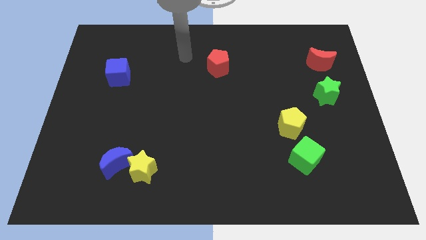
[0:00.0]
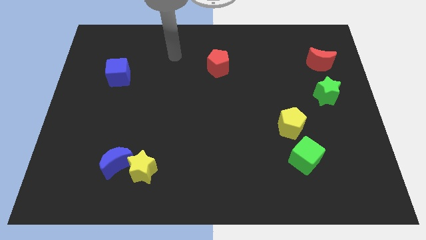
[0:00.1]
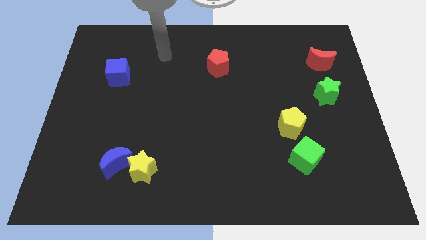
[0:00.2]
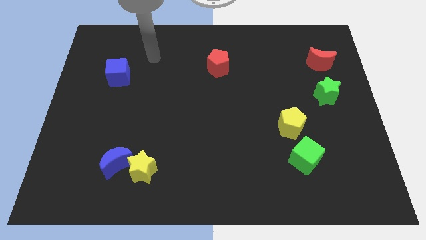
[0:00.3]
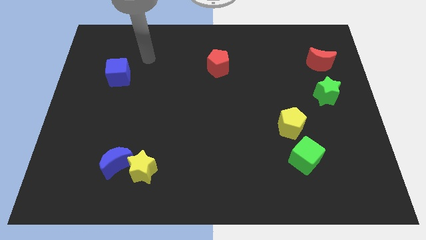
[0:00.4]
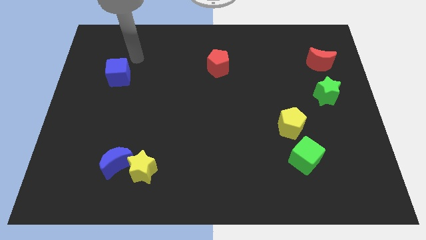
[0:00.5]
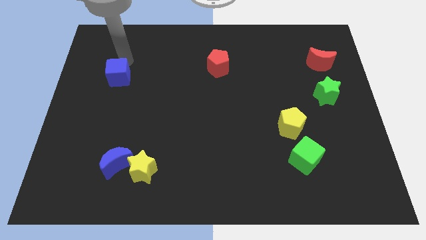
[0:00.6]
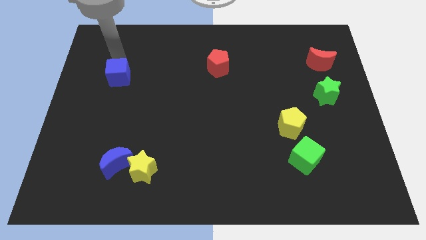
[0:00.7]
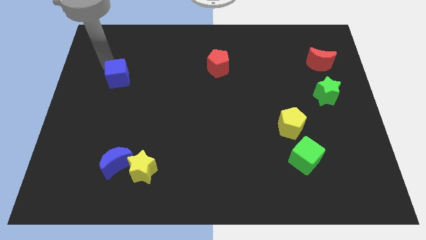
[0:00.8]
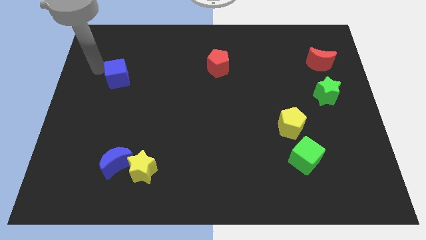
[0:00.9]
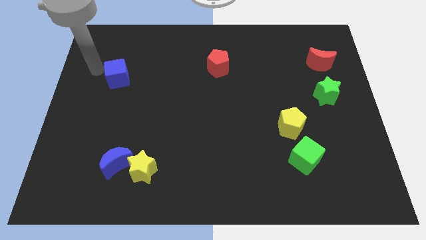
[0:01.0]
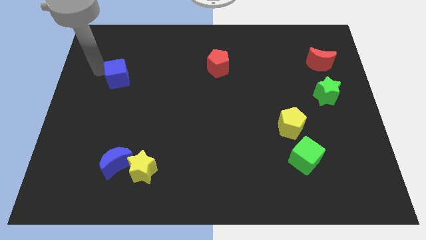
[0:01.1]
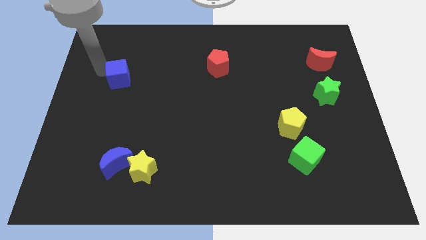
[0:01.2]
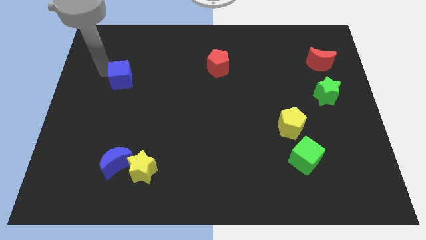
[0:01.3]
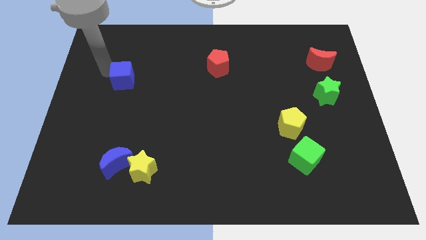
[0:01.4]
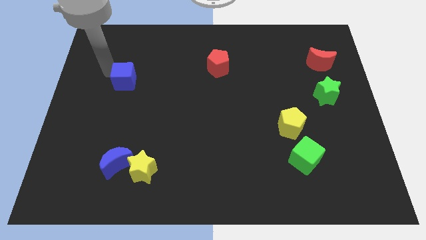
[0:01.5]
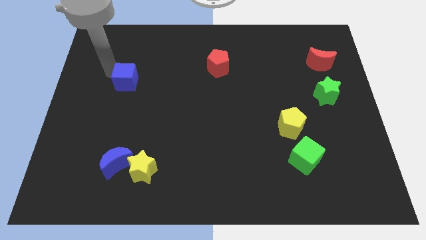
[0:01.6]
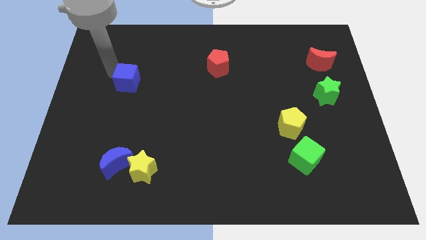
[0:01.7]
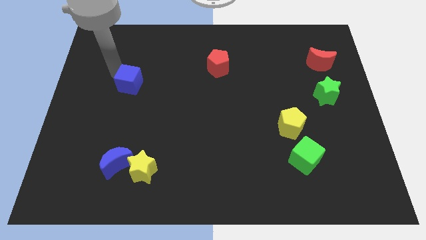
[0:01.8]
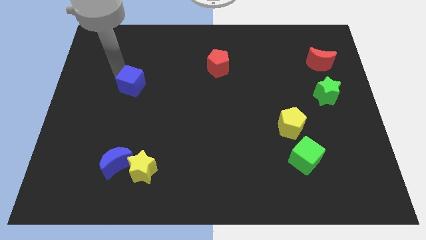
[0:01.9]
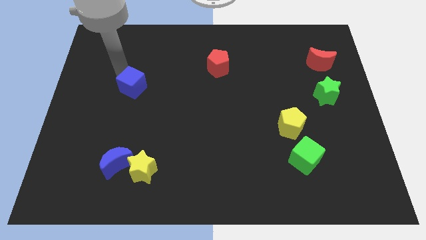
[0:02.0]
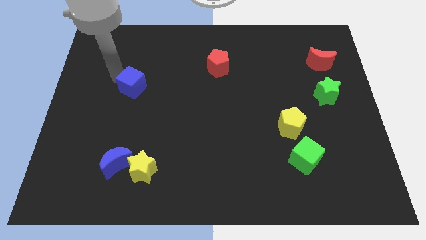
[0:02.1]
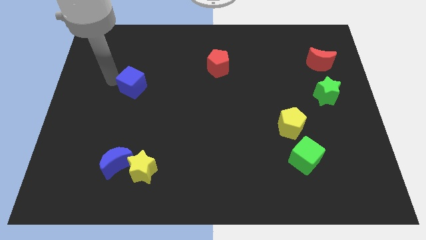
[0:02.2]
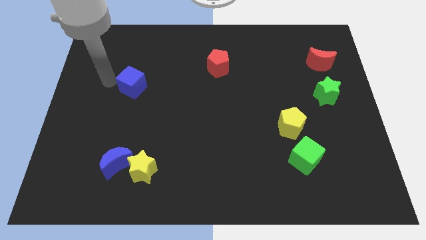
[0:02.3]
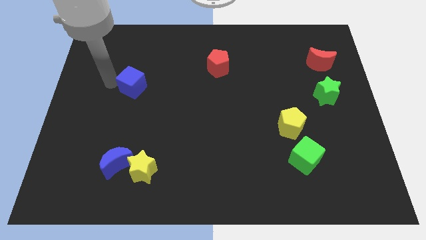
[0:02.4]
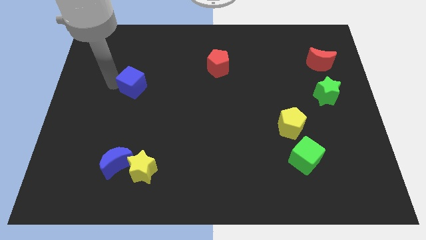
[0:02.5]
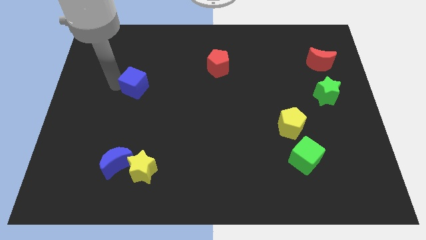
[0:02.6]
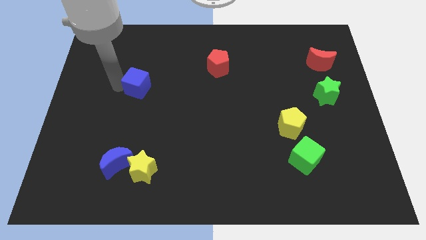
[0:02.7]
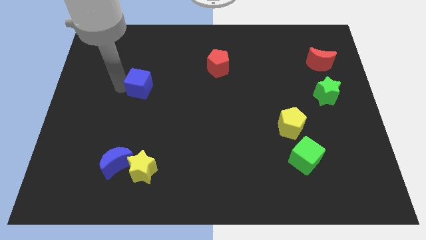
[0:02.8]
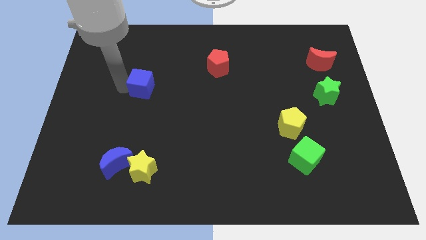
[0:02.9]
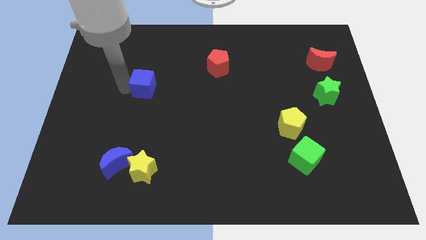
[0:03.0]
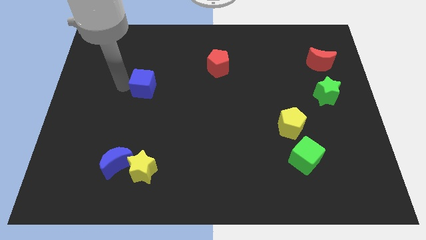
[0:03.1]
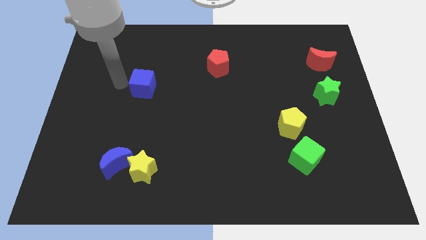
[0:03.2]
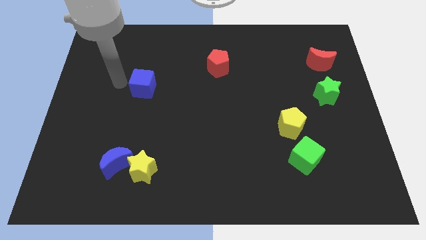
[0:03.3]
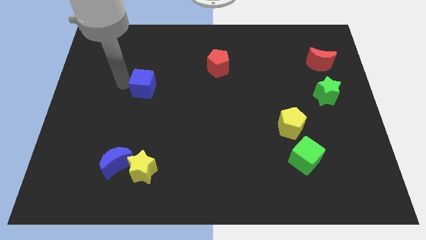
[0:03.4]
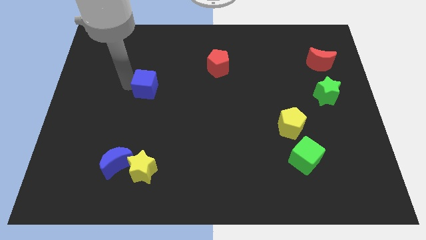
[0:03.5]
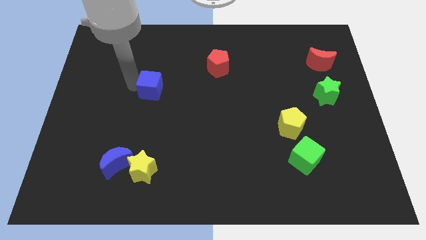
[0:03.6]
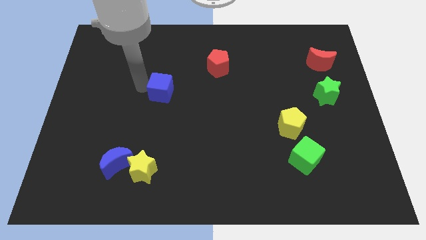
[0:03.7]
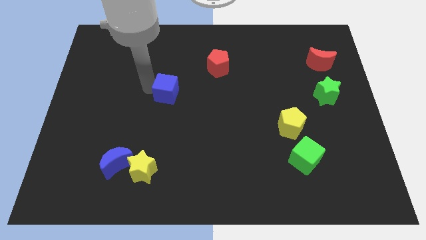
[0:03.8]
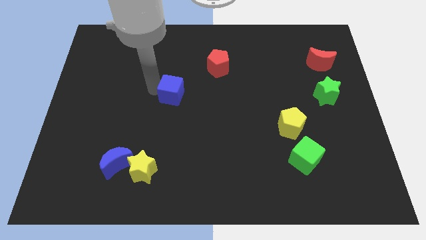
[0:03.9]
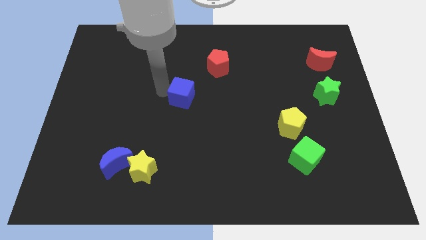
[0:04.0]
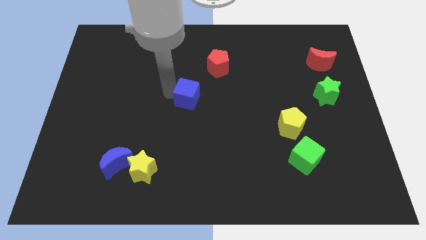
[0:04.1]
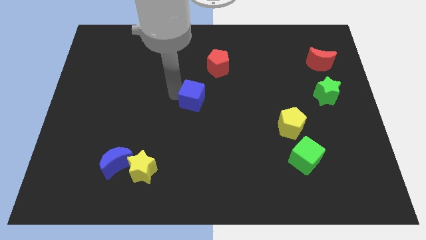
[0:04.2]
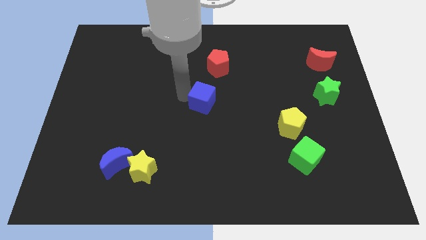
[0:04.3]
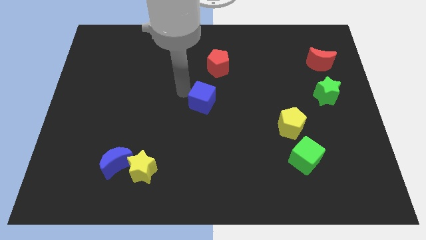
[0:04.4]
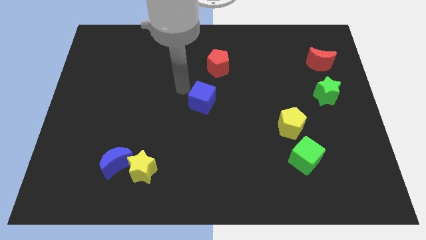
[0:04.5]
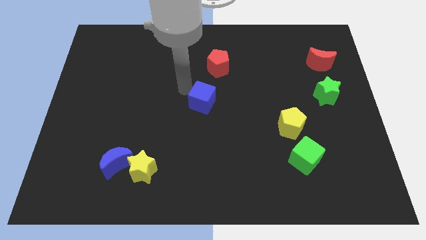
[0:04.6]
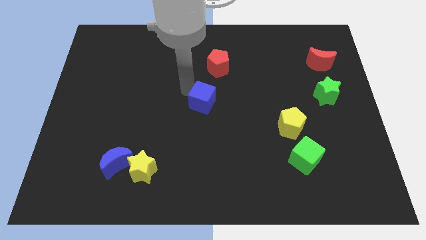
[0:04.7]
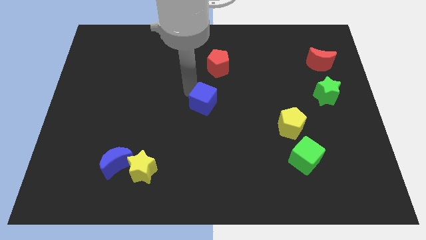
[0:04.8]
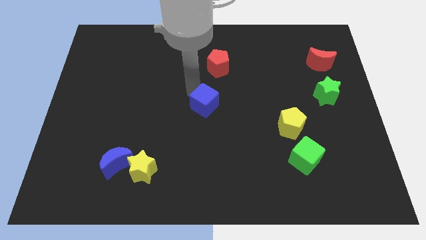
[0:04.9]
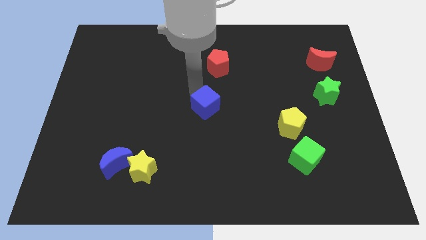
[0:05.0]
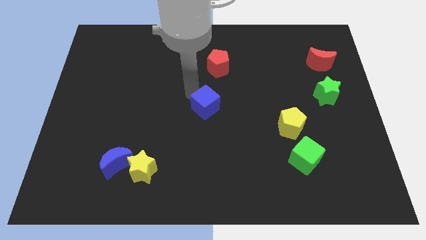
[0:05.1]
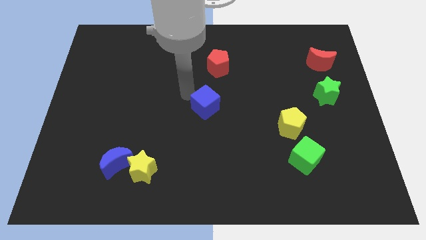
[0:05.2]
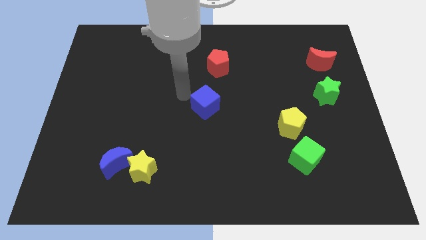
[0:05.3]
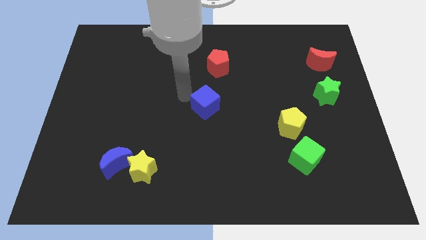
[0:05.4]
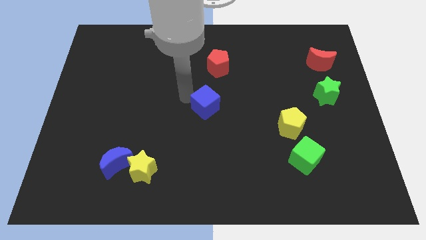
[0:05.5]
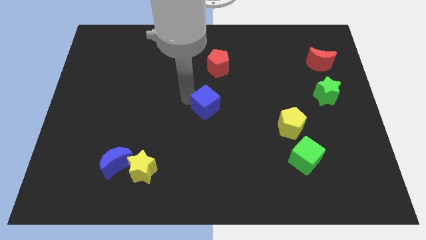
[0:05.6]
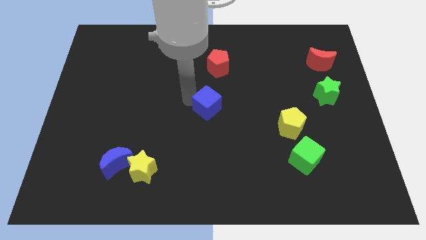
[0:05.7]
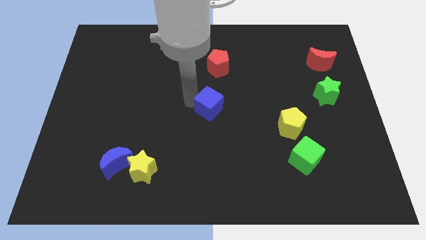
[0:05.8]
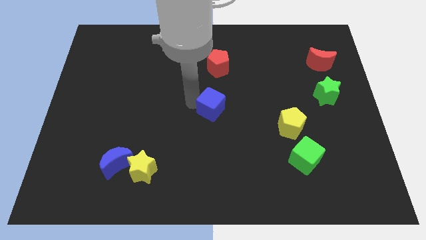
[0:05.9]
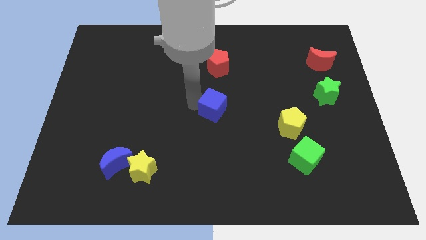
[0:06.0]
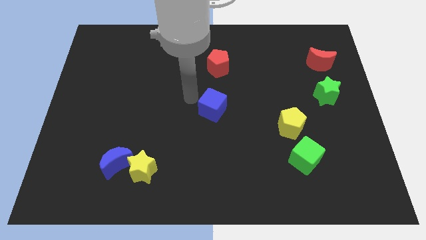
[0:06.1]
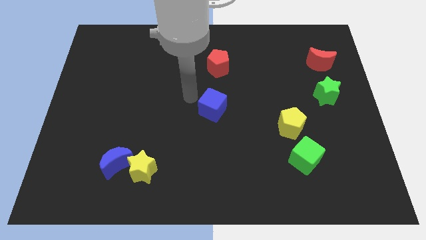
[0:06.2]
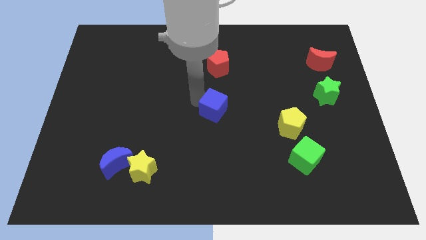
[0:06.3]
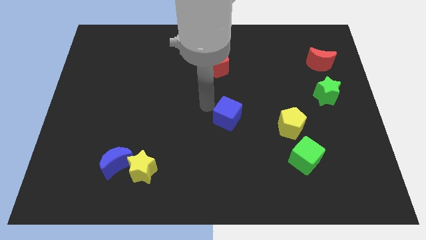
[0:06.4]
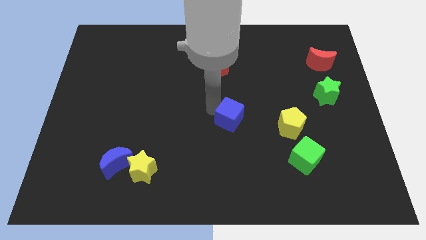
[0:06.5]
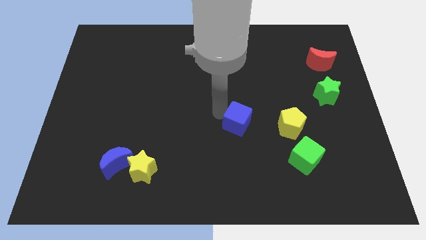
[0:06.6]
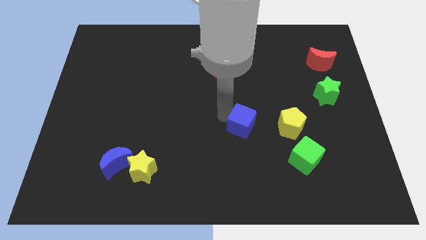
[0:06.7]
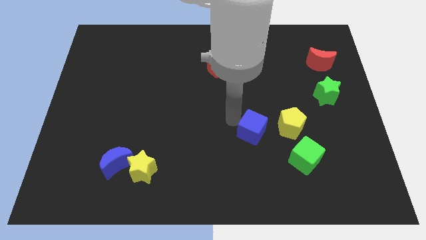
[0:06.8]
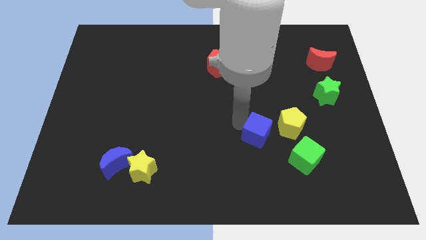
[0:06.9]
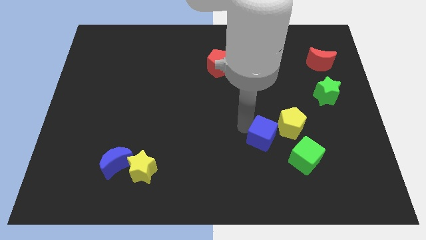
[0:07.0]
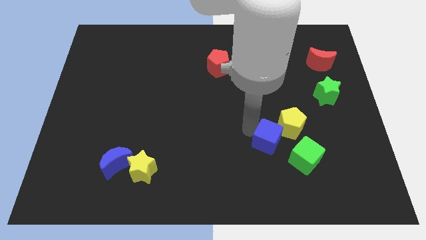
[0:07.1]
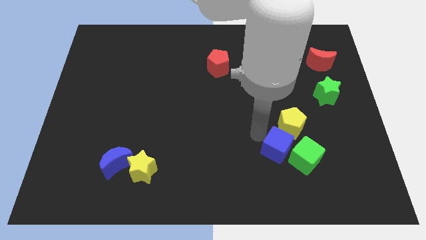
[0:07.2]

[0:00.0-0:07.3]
put the blue cube next to the green cube
